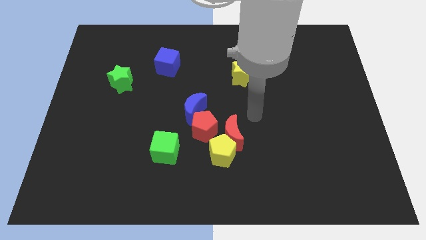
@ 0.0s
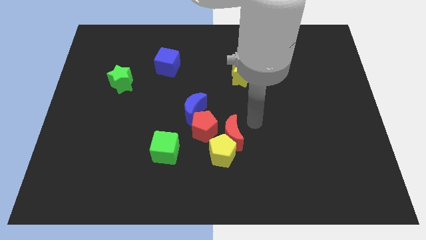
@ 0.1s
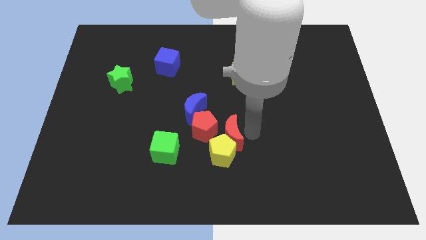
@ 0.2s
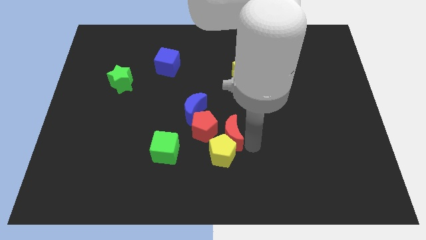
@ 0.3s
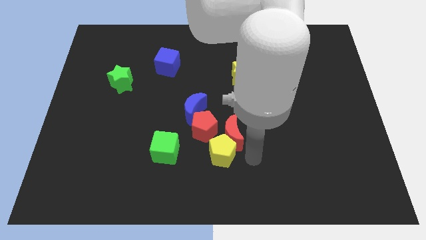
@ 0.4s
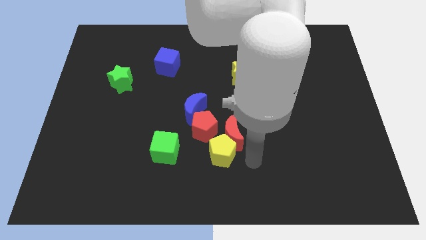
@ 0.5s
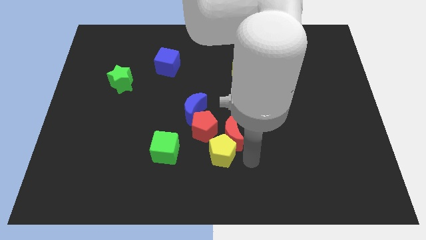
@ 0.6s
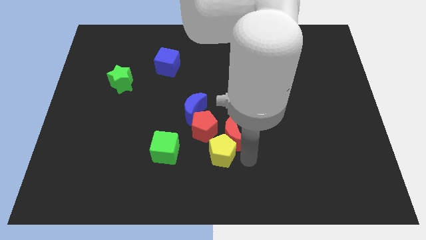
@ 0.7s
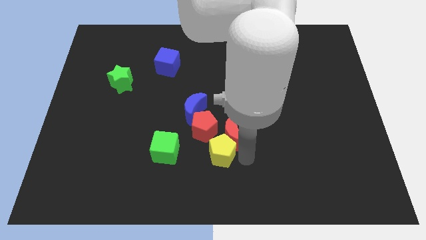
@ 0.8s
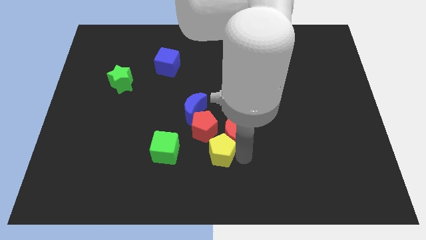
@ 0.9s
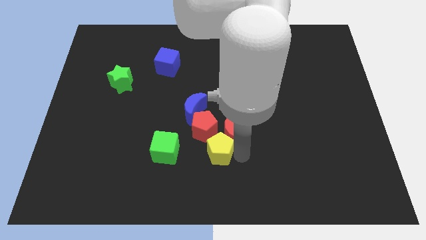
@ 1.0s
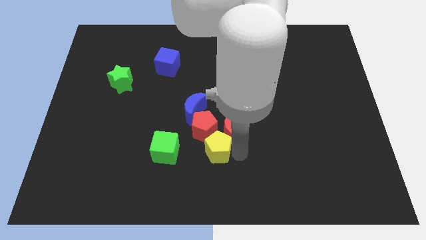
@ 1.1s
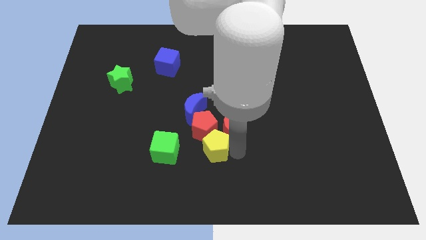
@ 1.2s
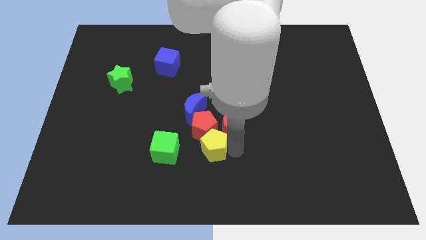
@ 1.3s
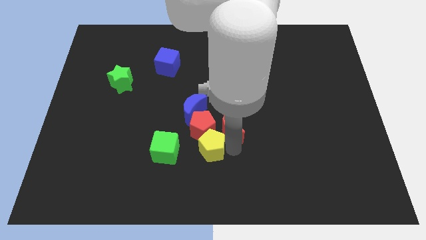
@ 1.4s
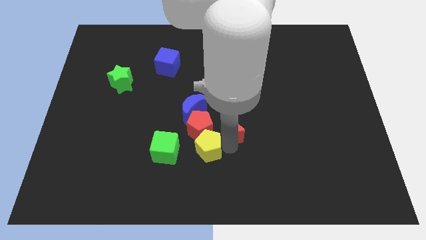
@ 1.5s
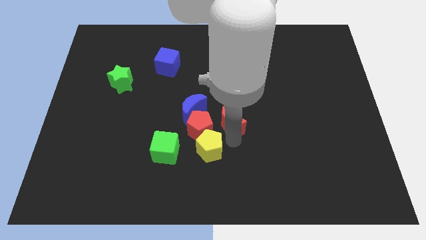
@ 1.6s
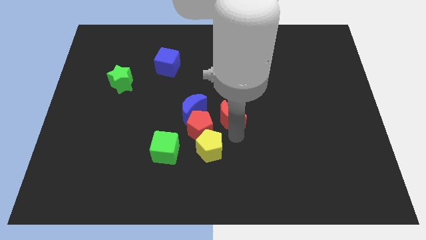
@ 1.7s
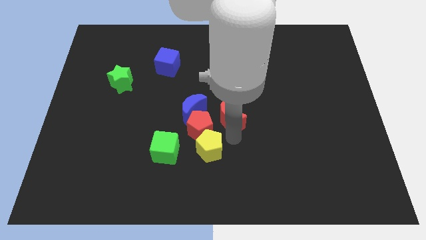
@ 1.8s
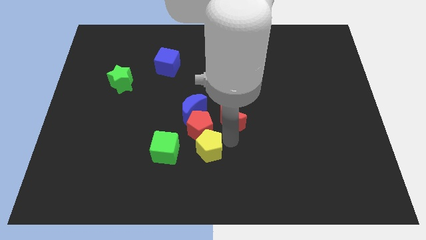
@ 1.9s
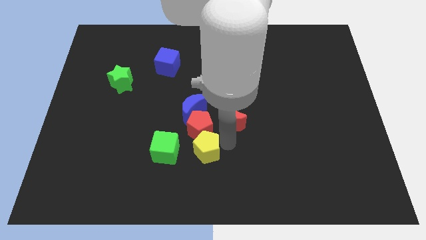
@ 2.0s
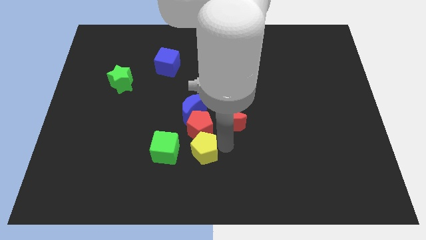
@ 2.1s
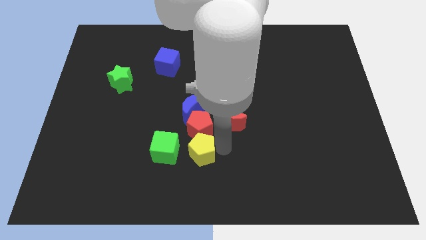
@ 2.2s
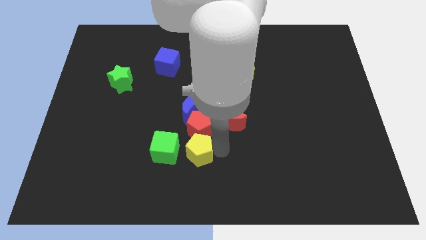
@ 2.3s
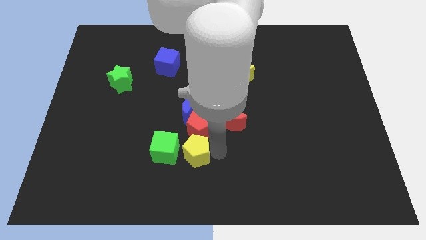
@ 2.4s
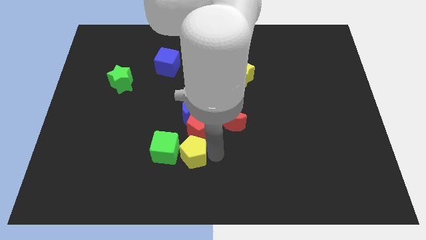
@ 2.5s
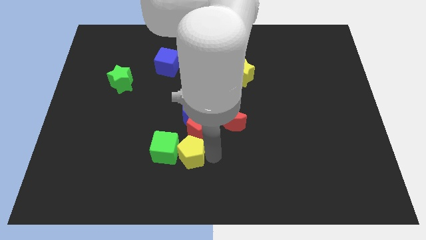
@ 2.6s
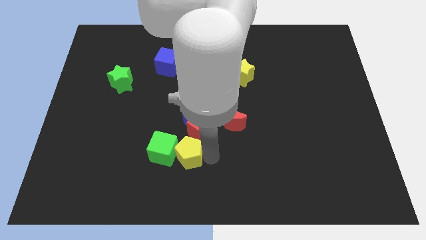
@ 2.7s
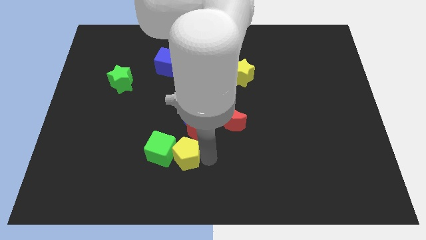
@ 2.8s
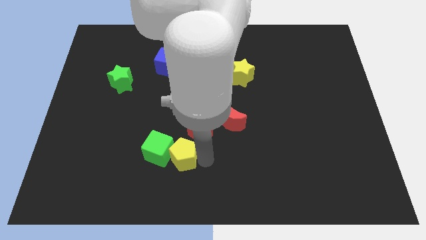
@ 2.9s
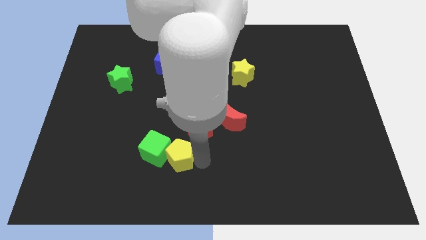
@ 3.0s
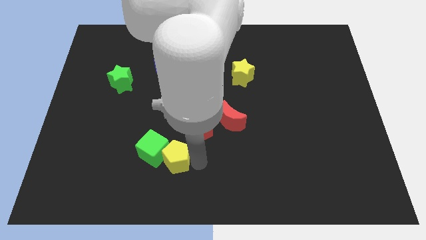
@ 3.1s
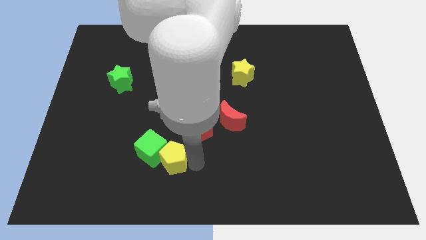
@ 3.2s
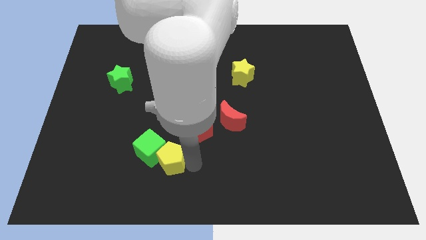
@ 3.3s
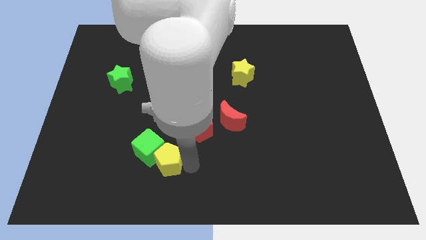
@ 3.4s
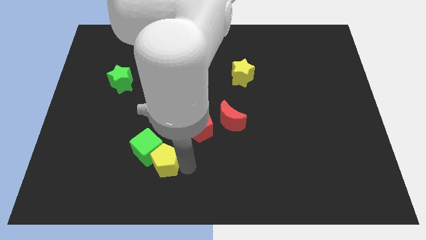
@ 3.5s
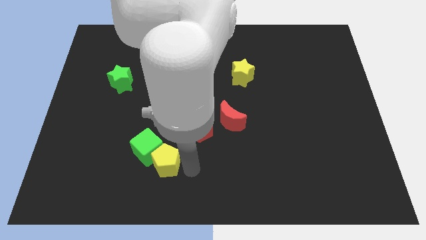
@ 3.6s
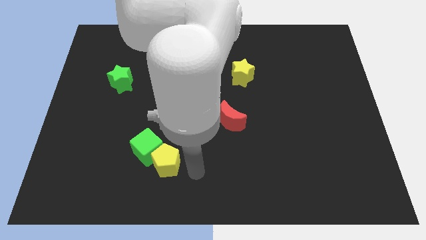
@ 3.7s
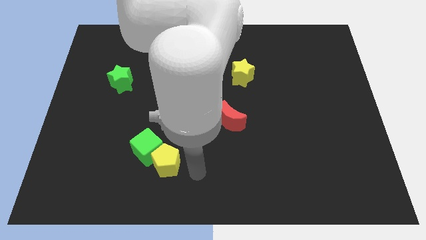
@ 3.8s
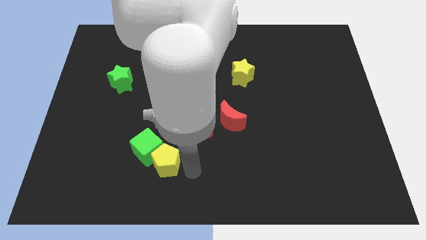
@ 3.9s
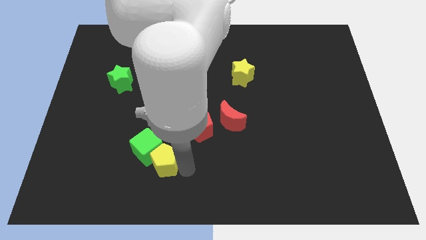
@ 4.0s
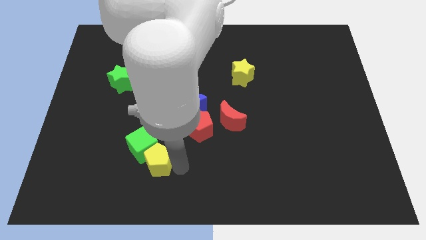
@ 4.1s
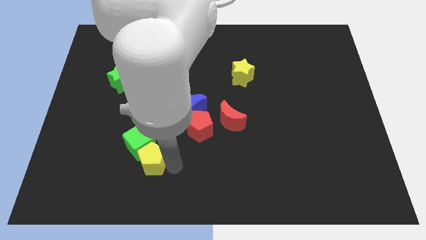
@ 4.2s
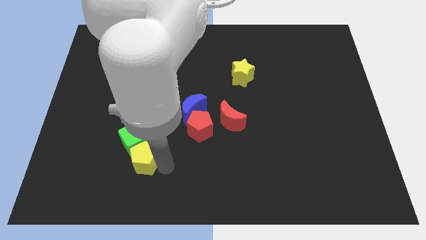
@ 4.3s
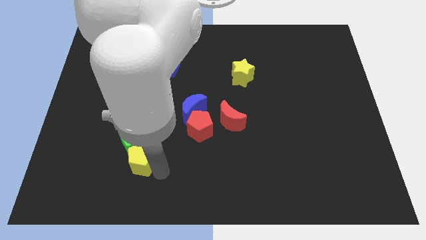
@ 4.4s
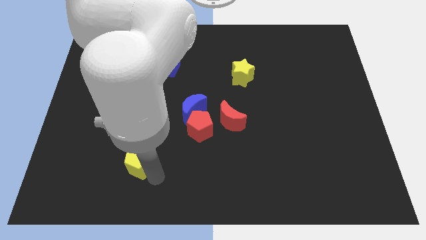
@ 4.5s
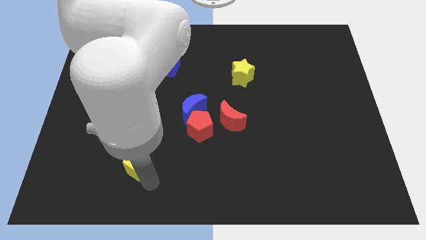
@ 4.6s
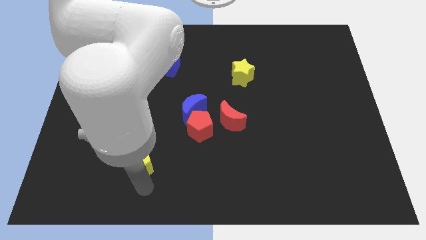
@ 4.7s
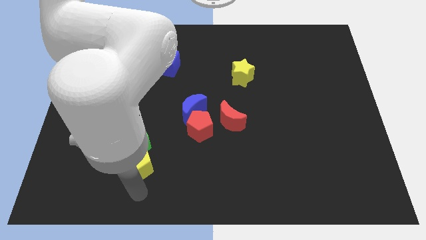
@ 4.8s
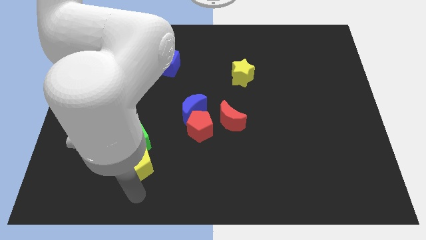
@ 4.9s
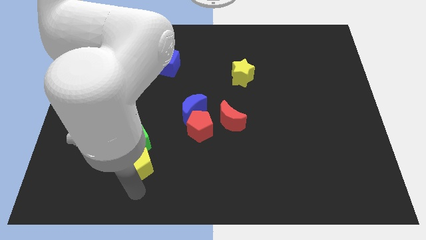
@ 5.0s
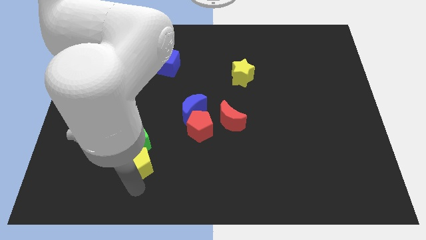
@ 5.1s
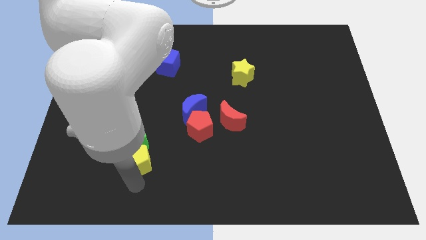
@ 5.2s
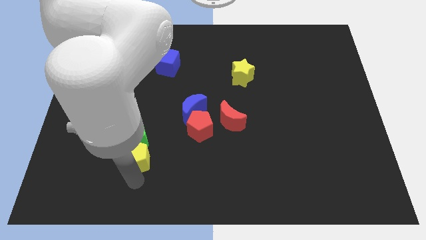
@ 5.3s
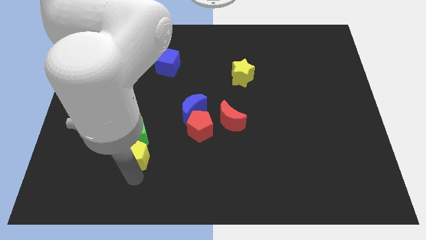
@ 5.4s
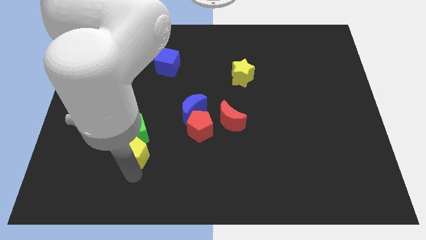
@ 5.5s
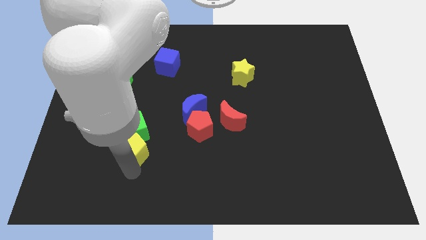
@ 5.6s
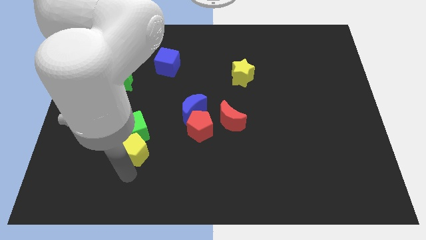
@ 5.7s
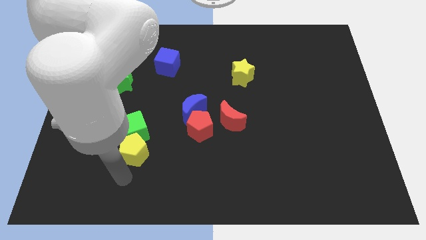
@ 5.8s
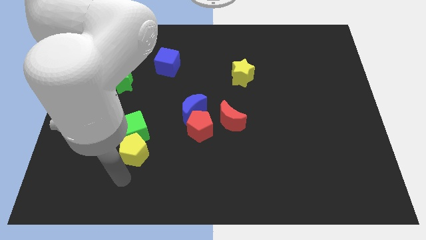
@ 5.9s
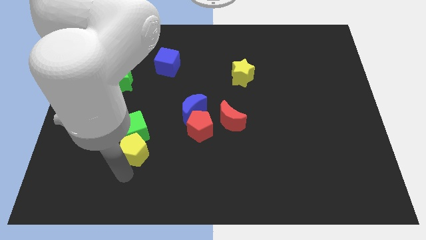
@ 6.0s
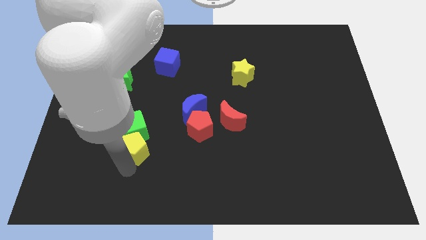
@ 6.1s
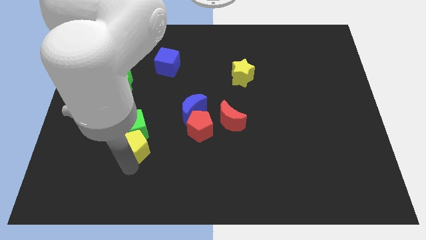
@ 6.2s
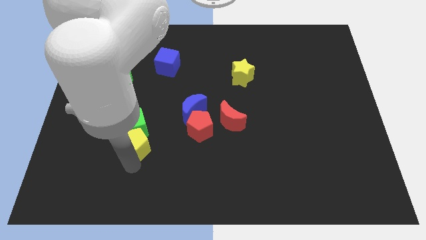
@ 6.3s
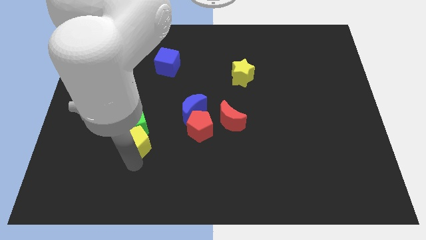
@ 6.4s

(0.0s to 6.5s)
slide the yellow pentagon diagonally upwards and left somewhat

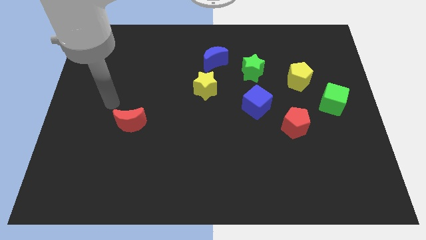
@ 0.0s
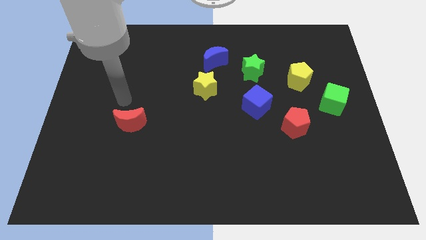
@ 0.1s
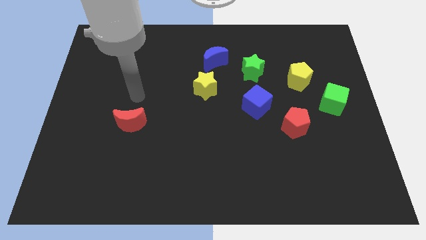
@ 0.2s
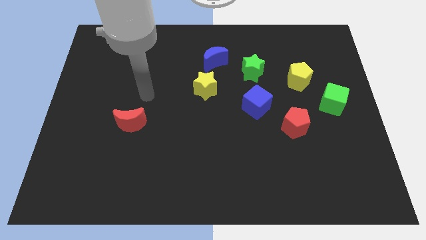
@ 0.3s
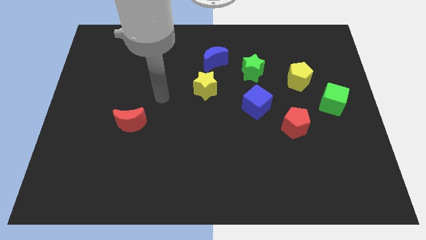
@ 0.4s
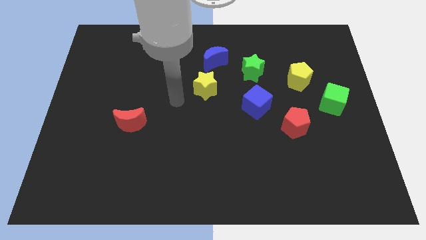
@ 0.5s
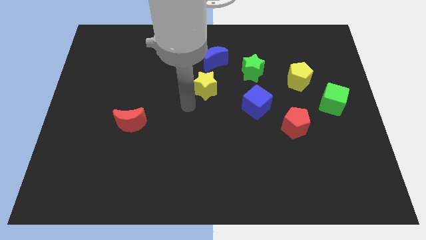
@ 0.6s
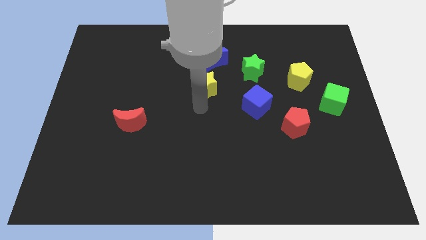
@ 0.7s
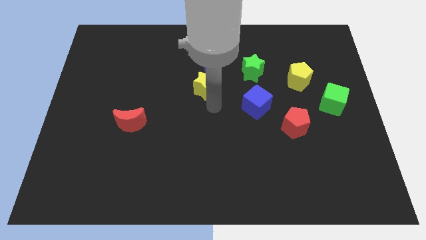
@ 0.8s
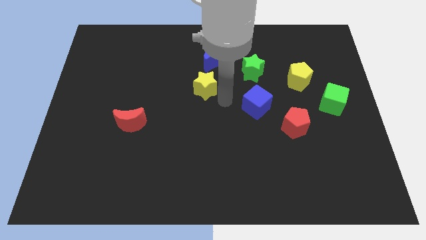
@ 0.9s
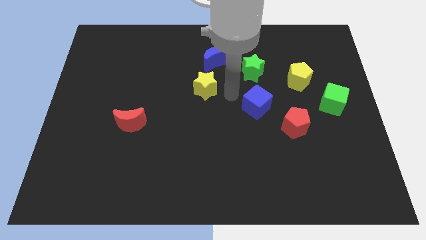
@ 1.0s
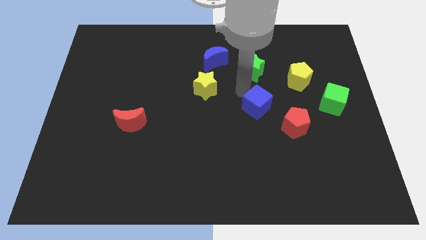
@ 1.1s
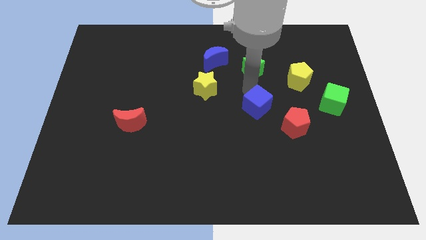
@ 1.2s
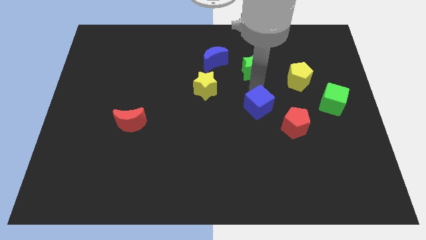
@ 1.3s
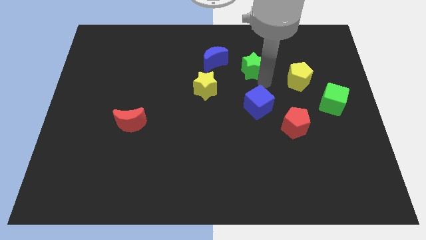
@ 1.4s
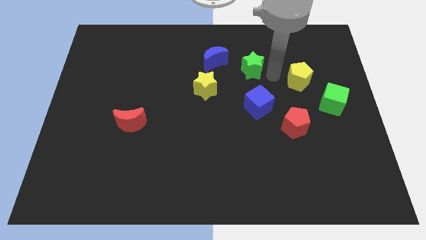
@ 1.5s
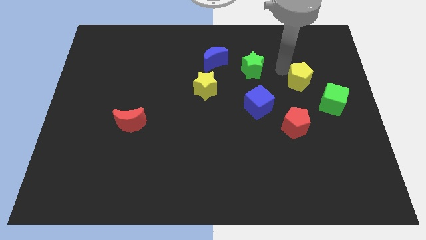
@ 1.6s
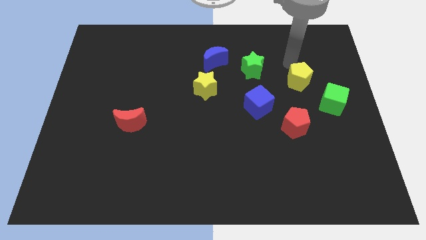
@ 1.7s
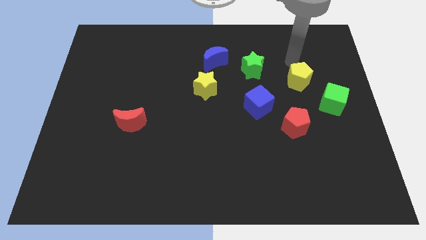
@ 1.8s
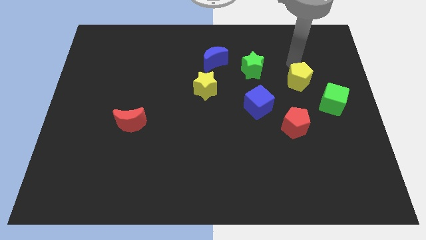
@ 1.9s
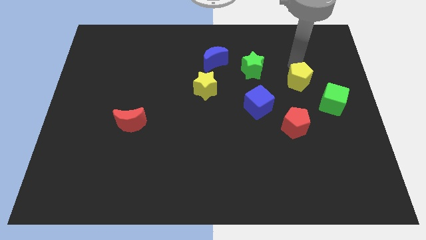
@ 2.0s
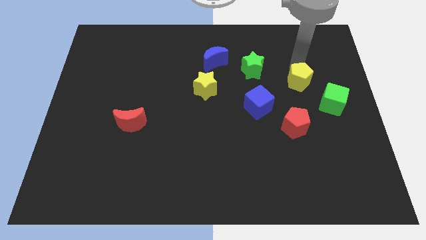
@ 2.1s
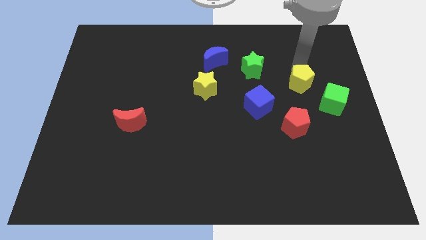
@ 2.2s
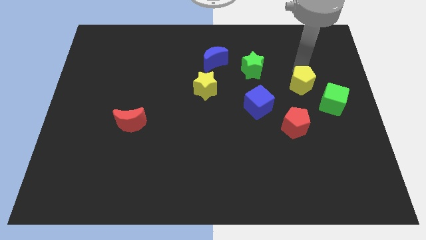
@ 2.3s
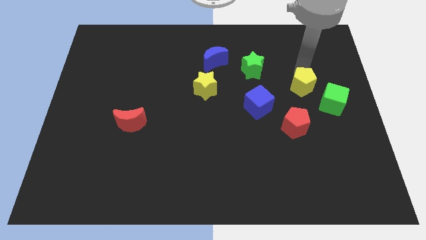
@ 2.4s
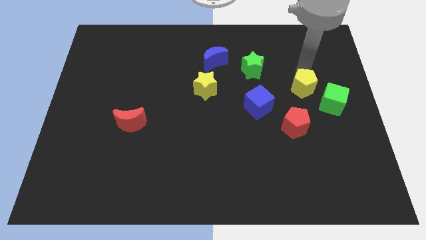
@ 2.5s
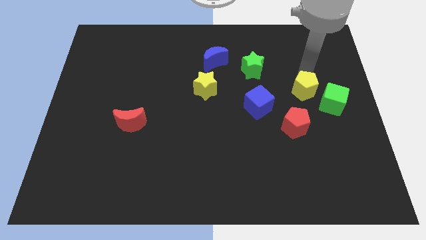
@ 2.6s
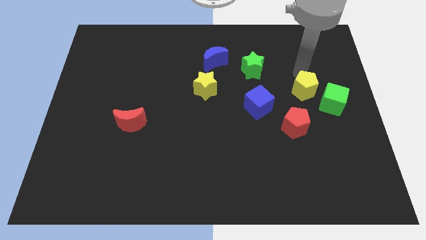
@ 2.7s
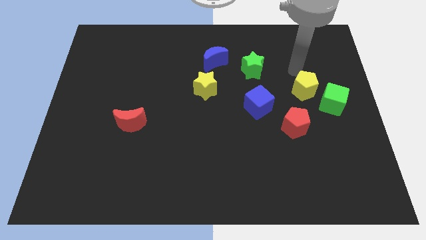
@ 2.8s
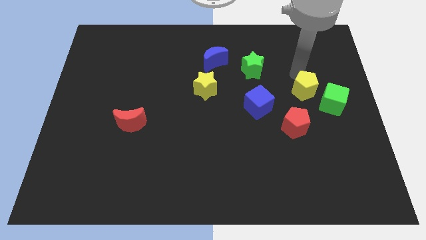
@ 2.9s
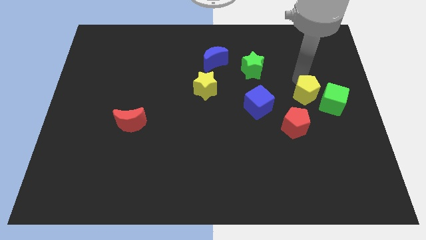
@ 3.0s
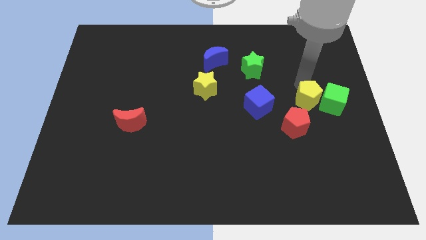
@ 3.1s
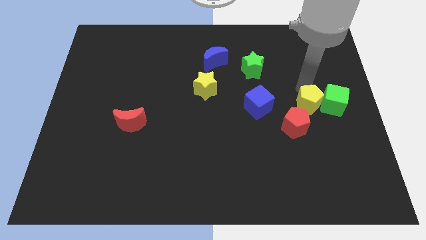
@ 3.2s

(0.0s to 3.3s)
push the yellow pentagon downwards a little bit
